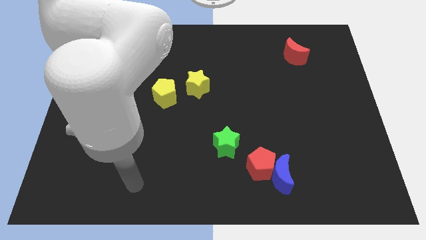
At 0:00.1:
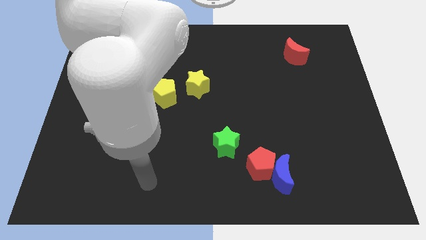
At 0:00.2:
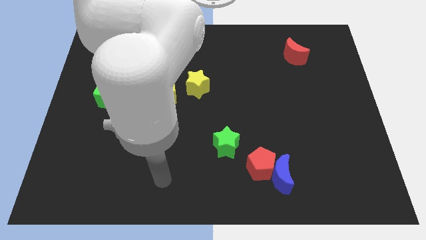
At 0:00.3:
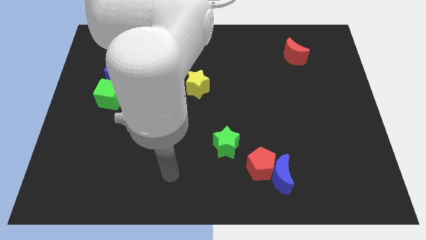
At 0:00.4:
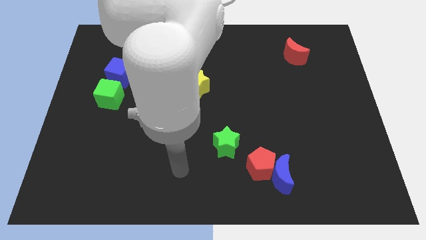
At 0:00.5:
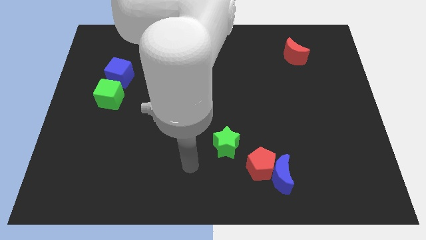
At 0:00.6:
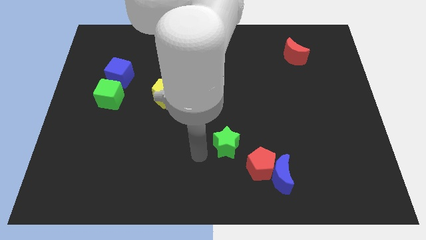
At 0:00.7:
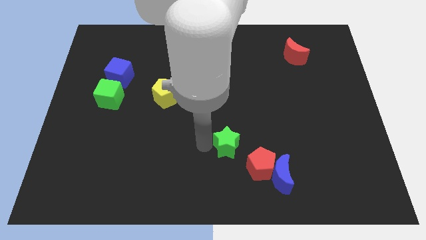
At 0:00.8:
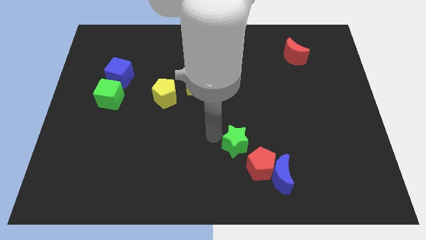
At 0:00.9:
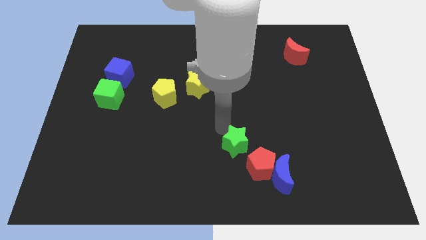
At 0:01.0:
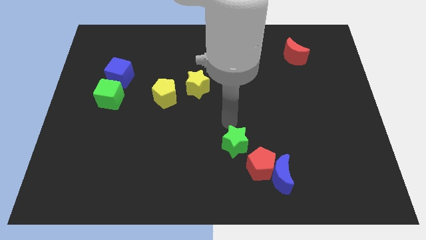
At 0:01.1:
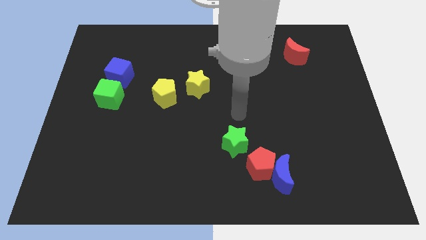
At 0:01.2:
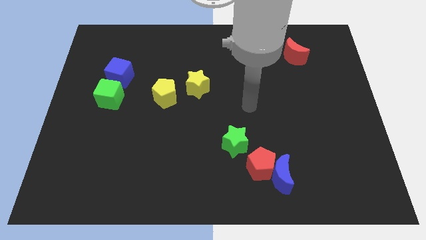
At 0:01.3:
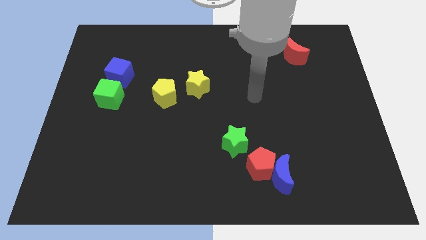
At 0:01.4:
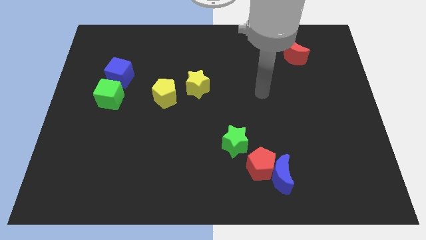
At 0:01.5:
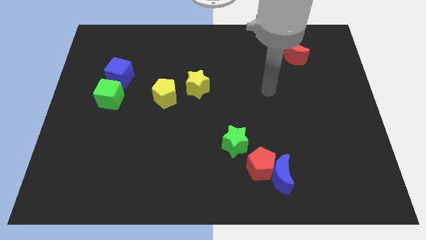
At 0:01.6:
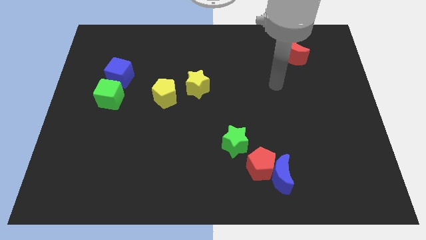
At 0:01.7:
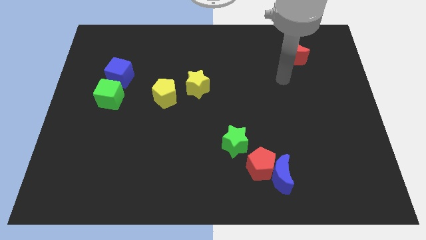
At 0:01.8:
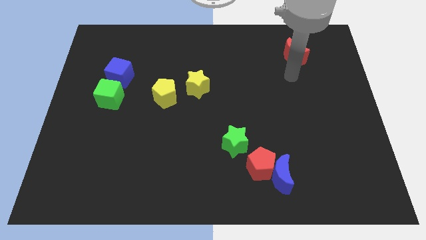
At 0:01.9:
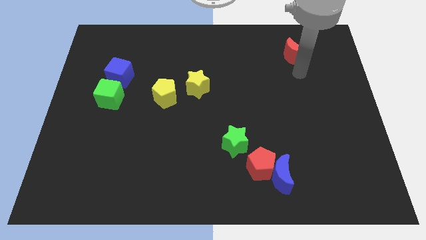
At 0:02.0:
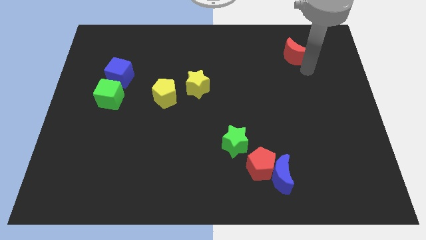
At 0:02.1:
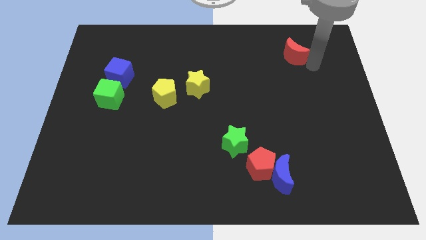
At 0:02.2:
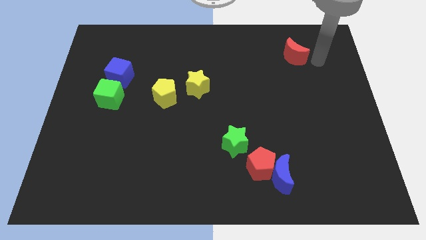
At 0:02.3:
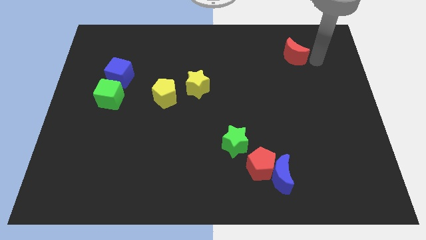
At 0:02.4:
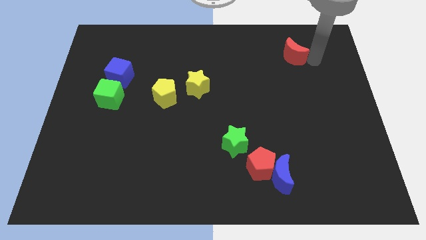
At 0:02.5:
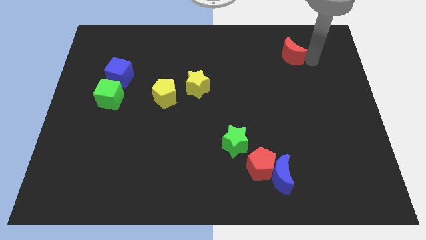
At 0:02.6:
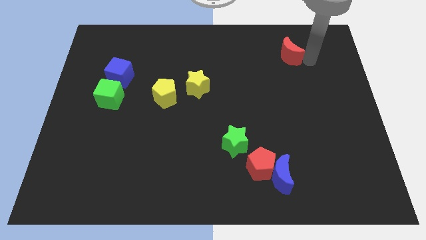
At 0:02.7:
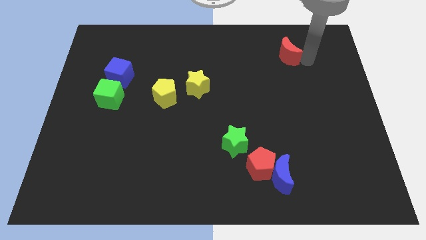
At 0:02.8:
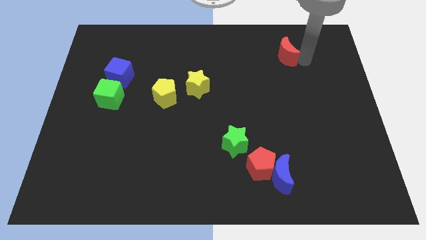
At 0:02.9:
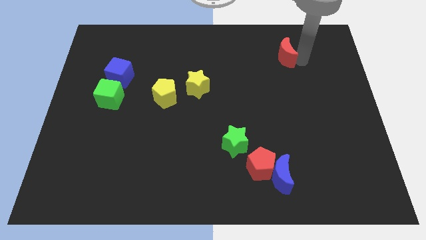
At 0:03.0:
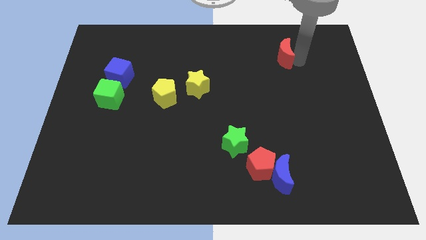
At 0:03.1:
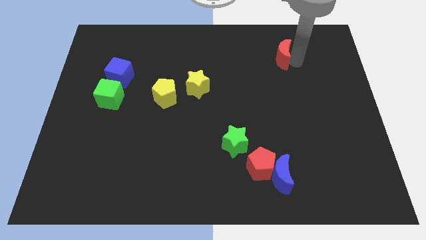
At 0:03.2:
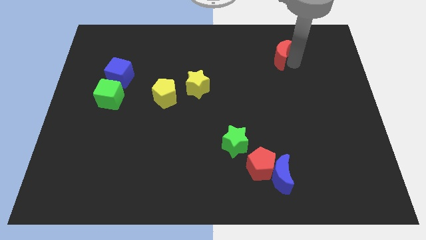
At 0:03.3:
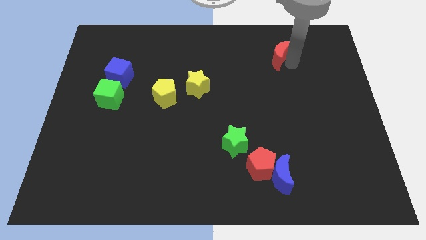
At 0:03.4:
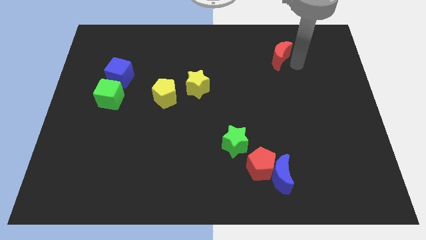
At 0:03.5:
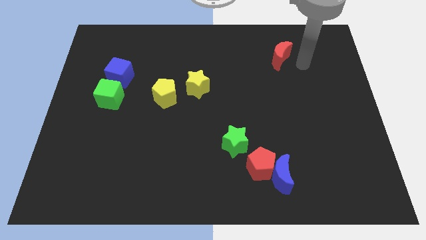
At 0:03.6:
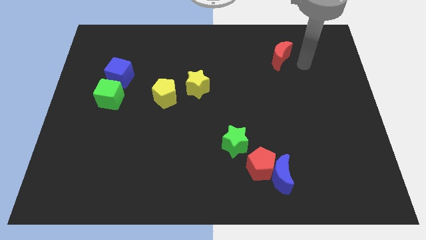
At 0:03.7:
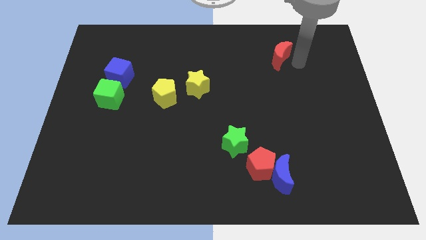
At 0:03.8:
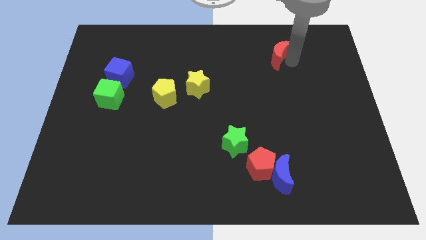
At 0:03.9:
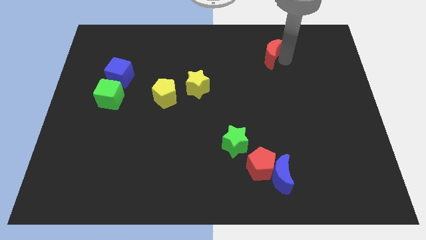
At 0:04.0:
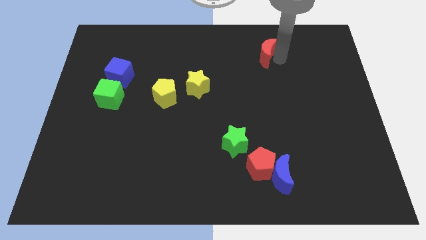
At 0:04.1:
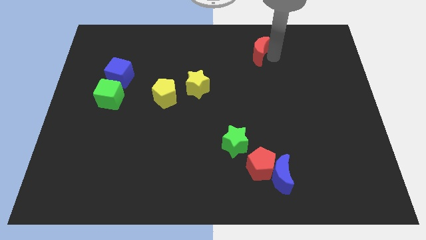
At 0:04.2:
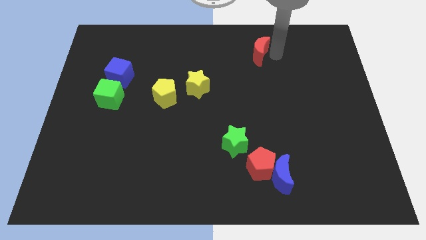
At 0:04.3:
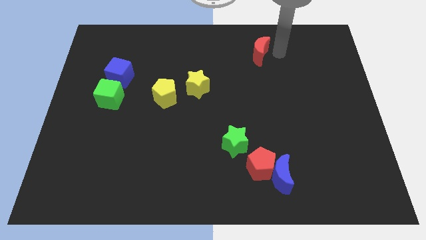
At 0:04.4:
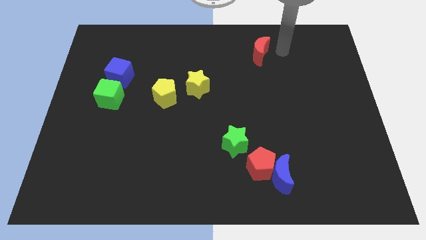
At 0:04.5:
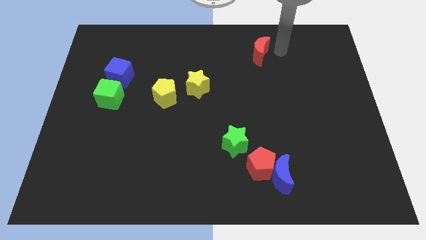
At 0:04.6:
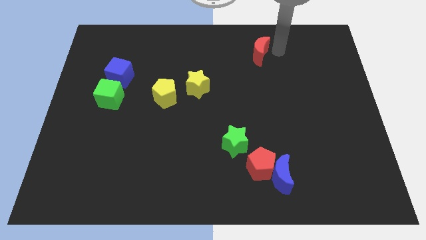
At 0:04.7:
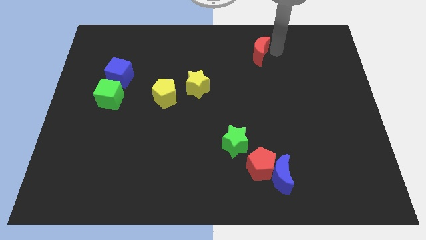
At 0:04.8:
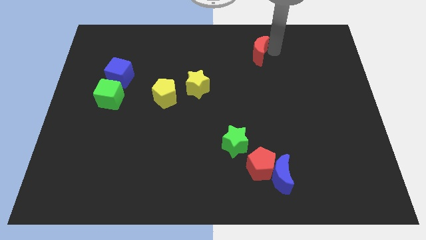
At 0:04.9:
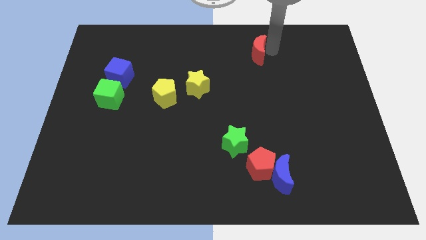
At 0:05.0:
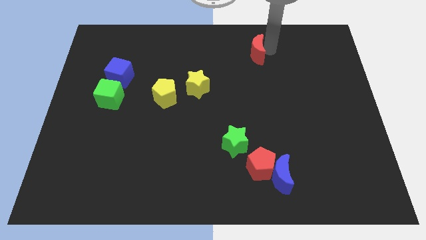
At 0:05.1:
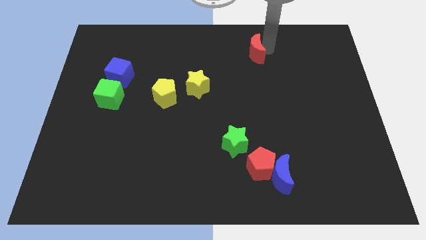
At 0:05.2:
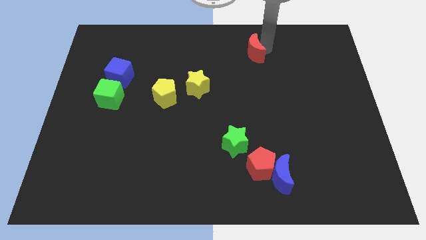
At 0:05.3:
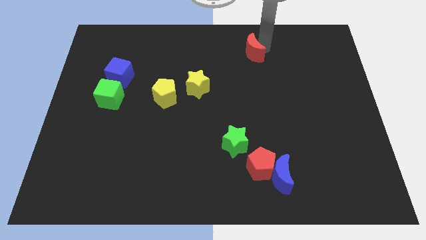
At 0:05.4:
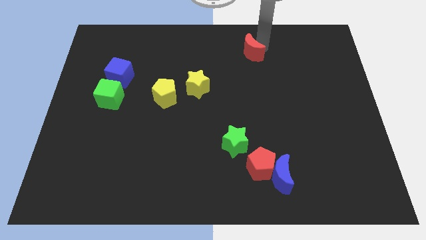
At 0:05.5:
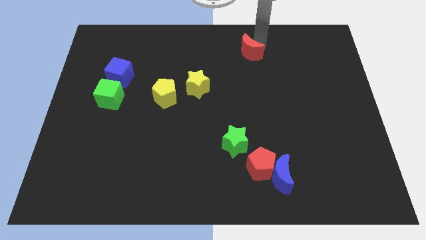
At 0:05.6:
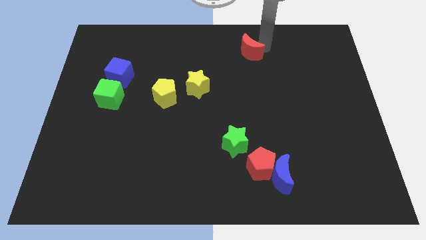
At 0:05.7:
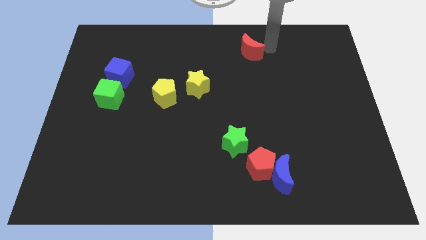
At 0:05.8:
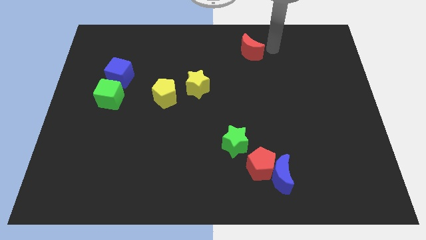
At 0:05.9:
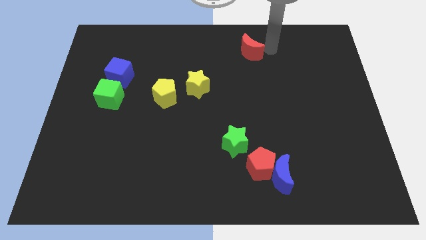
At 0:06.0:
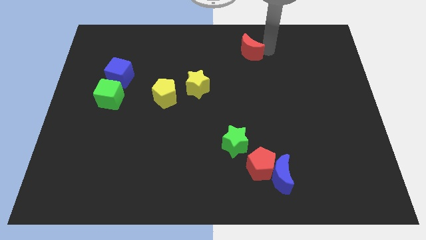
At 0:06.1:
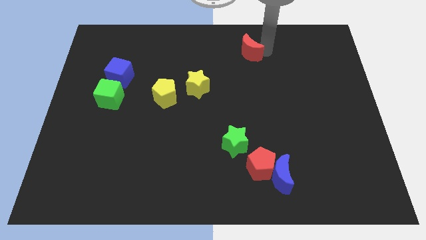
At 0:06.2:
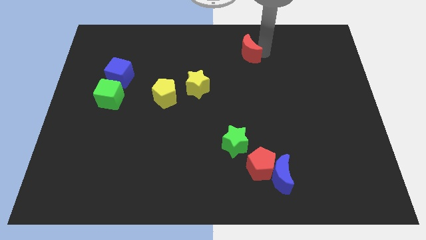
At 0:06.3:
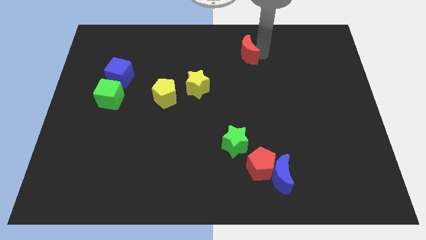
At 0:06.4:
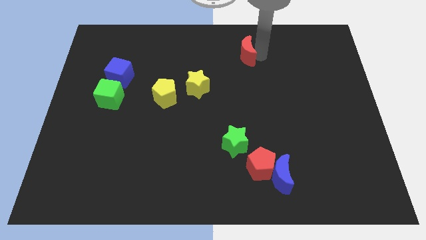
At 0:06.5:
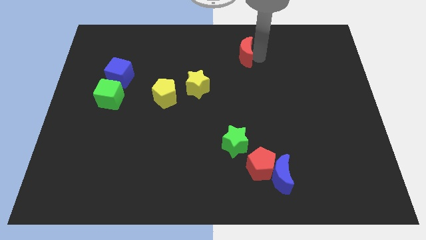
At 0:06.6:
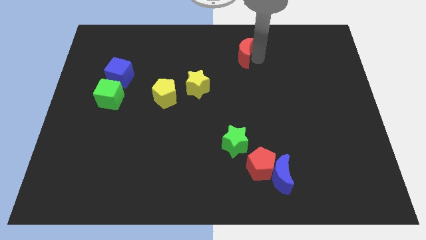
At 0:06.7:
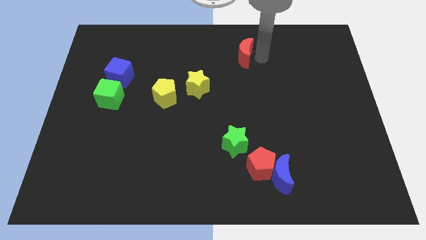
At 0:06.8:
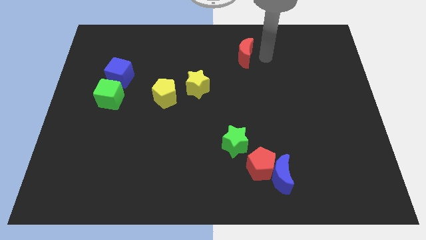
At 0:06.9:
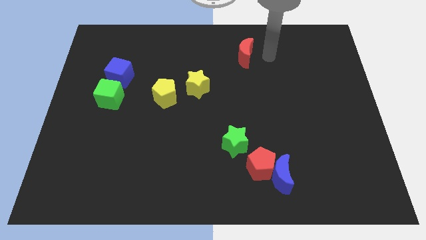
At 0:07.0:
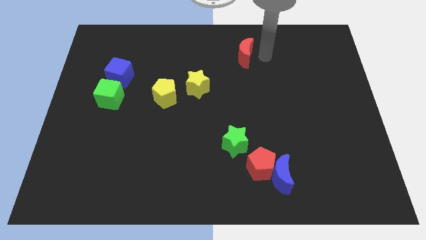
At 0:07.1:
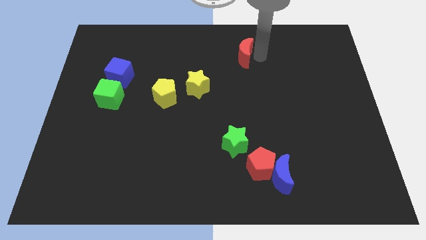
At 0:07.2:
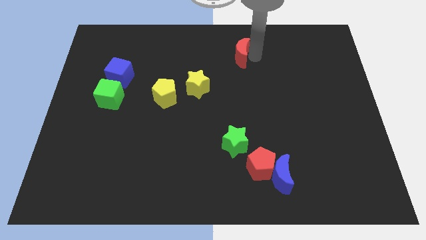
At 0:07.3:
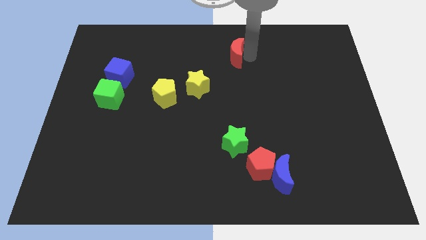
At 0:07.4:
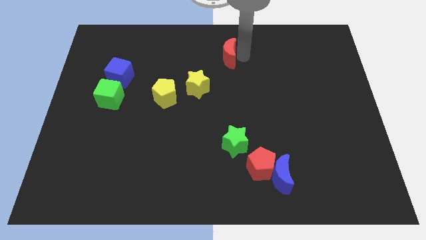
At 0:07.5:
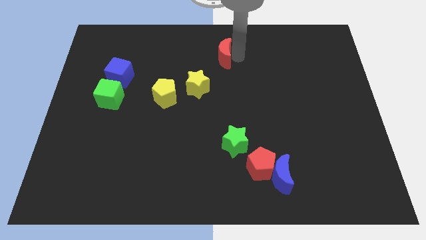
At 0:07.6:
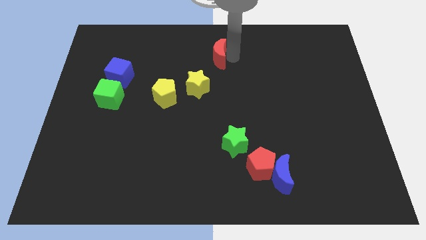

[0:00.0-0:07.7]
move the red moon left

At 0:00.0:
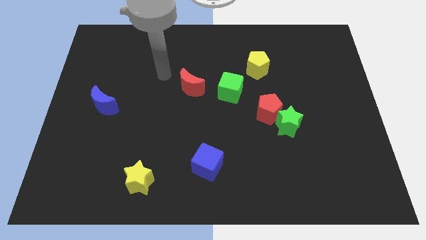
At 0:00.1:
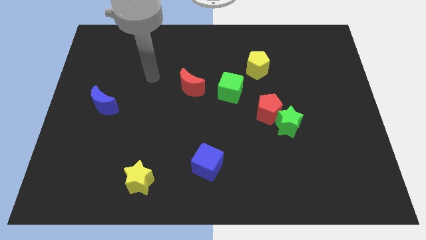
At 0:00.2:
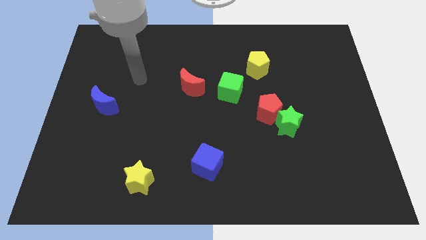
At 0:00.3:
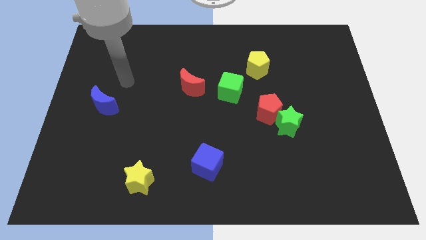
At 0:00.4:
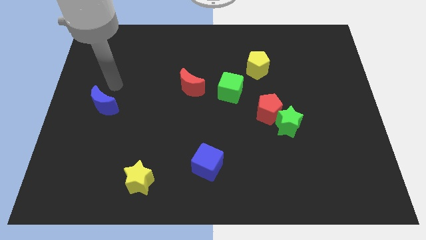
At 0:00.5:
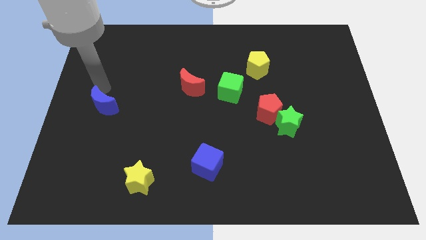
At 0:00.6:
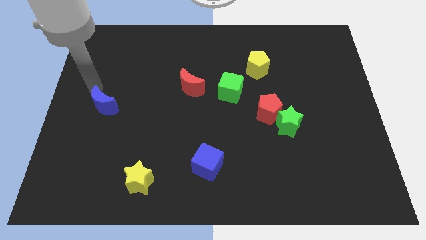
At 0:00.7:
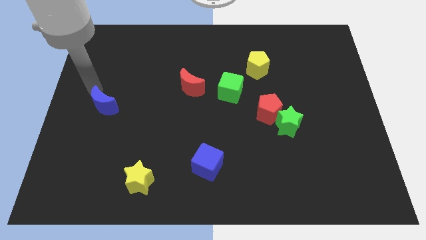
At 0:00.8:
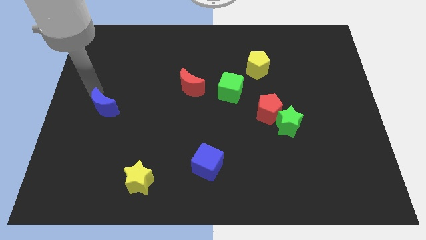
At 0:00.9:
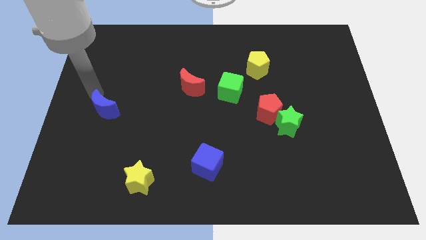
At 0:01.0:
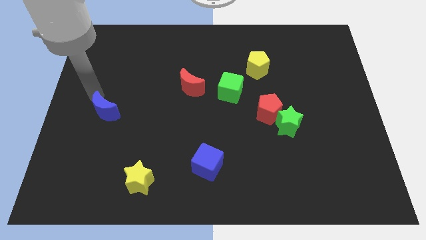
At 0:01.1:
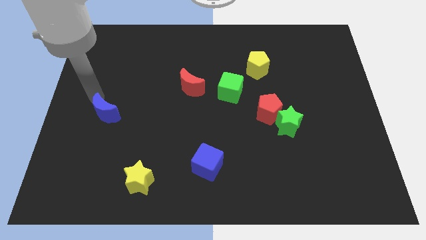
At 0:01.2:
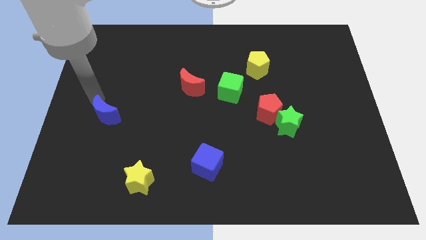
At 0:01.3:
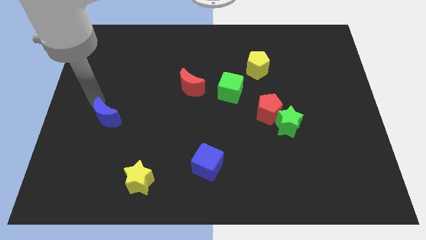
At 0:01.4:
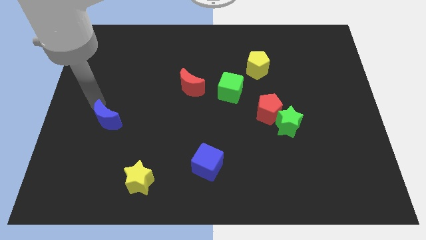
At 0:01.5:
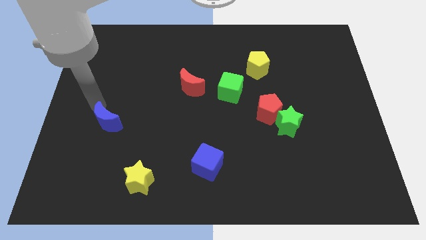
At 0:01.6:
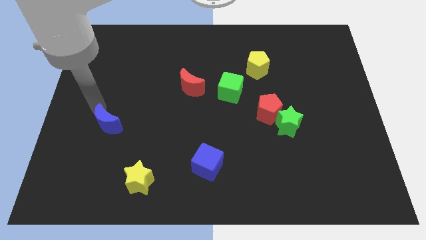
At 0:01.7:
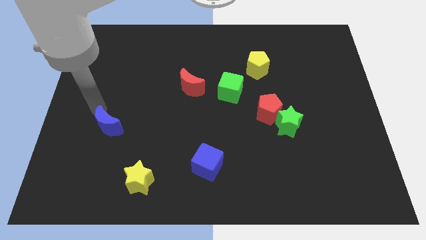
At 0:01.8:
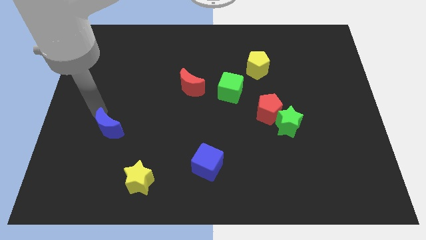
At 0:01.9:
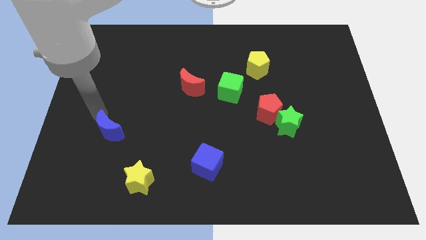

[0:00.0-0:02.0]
slightly move the blue moon downwards
